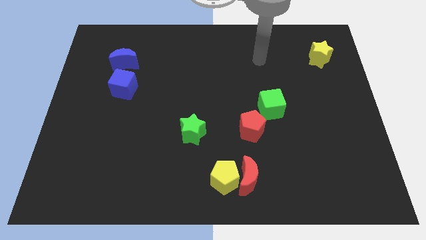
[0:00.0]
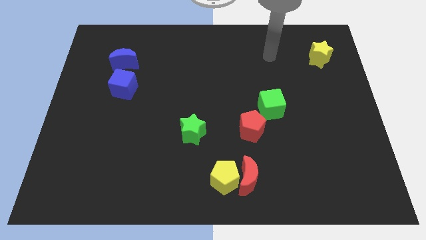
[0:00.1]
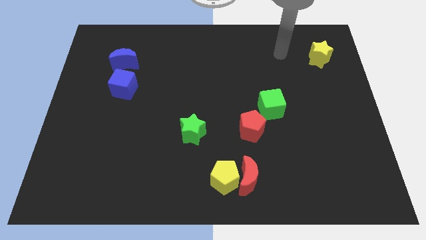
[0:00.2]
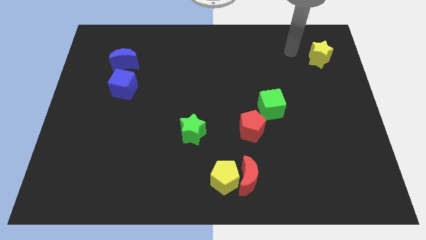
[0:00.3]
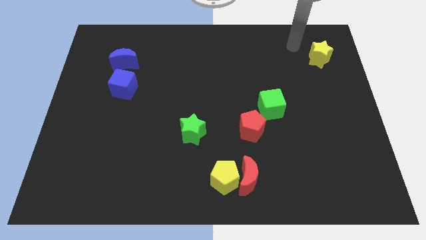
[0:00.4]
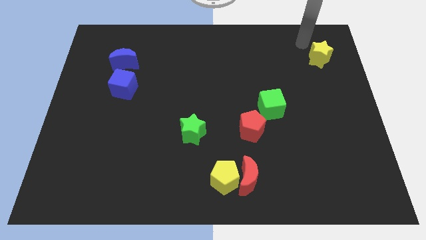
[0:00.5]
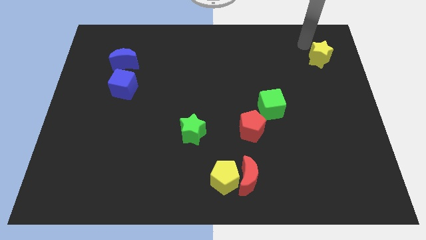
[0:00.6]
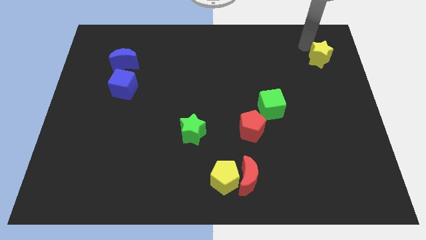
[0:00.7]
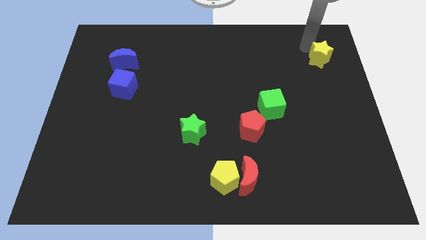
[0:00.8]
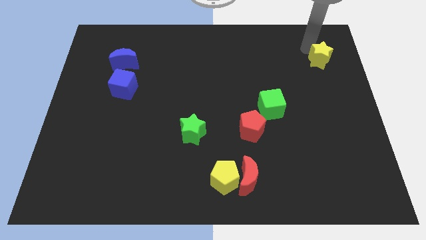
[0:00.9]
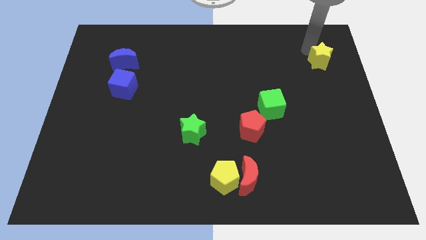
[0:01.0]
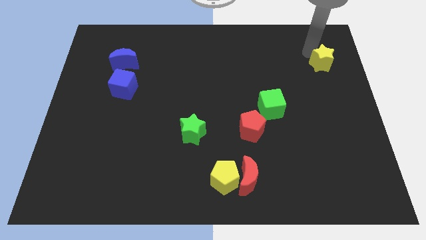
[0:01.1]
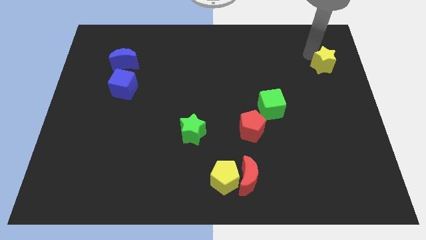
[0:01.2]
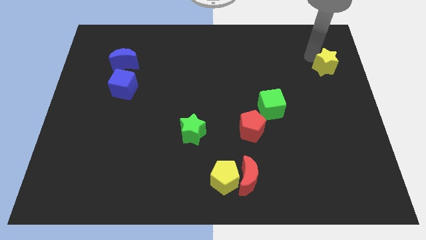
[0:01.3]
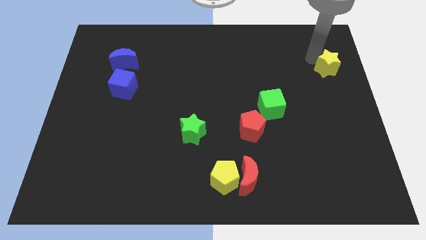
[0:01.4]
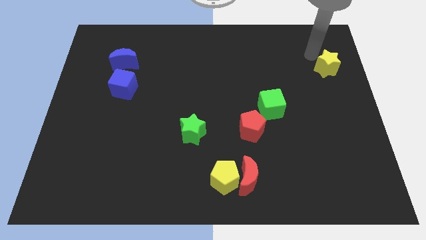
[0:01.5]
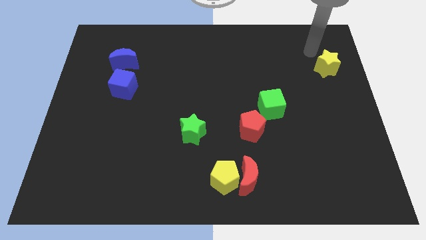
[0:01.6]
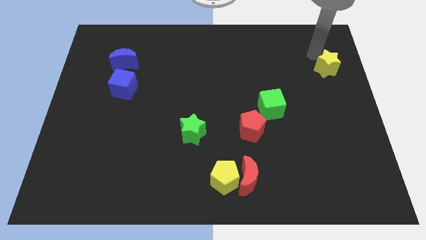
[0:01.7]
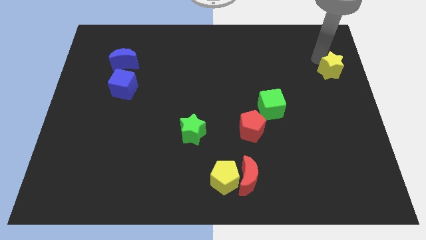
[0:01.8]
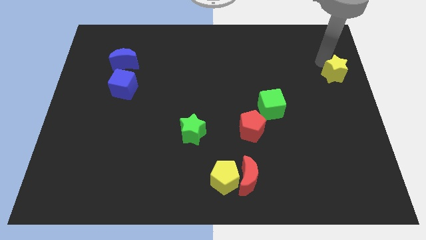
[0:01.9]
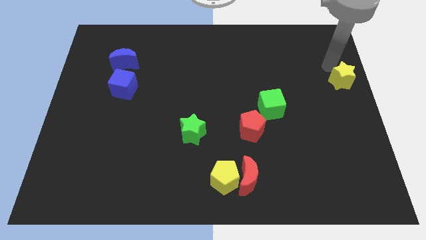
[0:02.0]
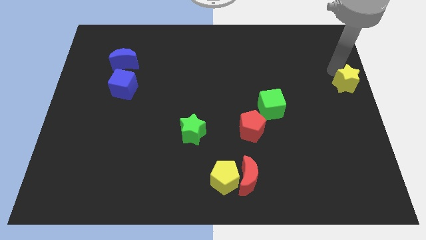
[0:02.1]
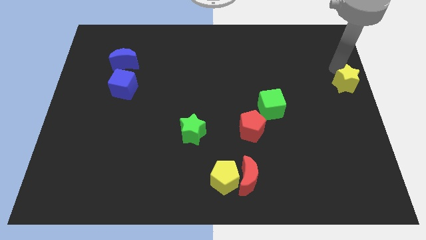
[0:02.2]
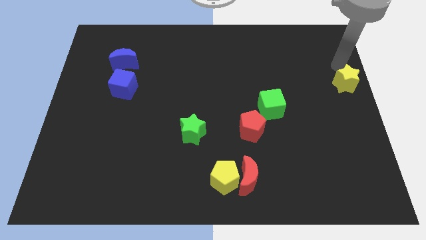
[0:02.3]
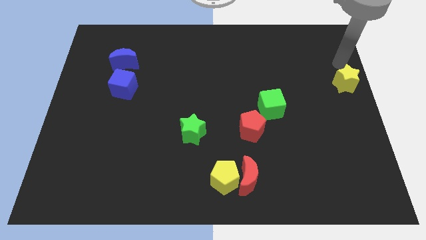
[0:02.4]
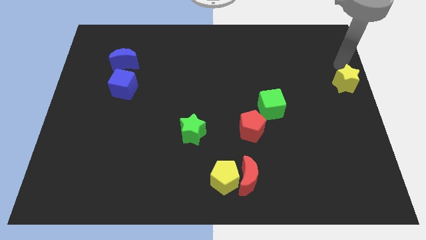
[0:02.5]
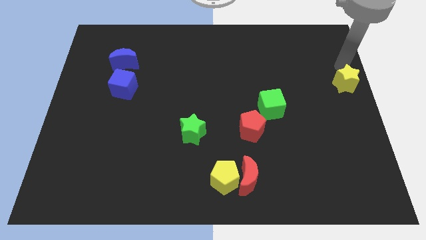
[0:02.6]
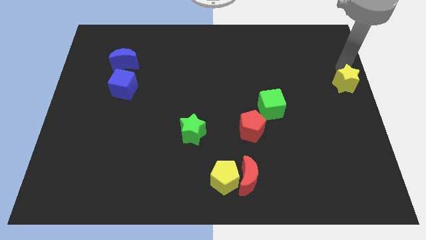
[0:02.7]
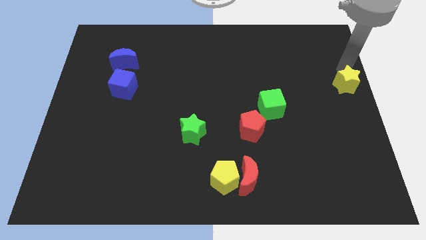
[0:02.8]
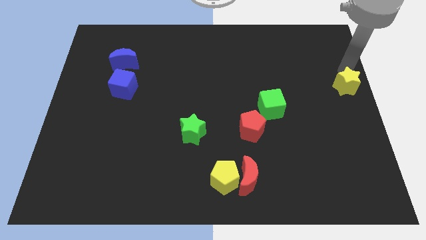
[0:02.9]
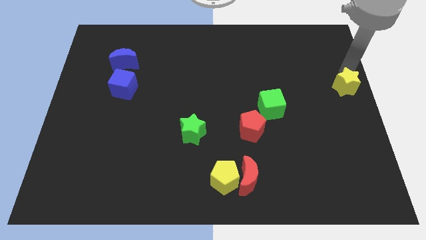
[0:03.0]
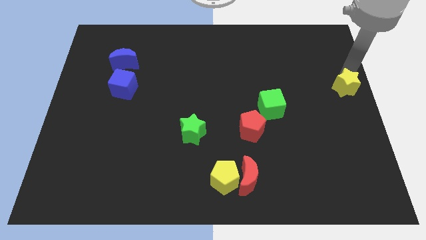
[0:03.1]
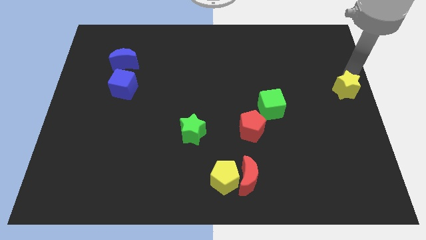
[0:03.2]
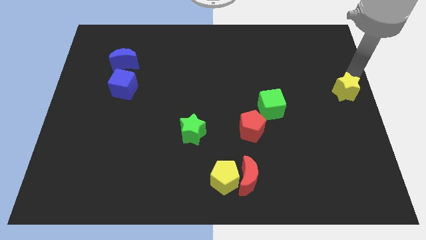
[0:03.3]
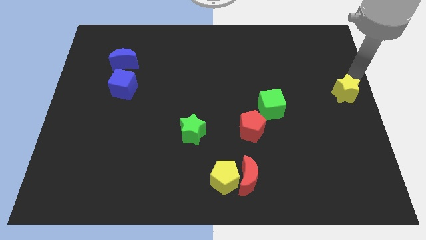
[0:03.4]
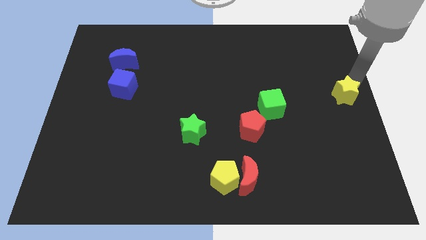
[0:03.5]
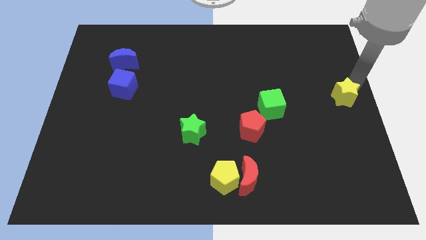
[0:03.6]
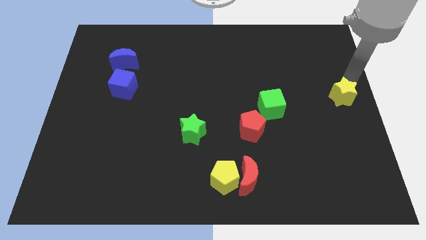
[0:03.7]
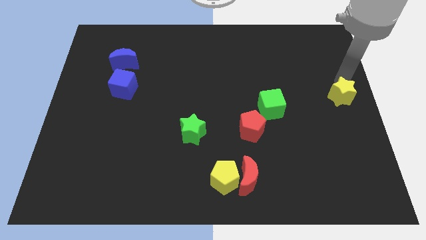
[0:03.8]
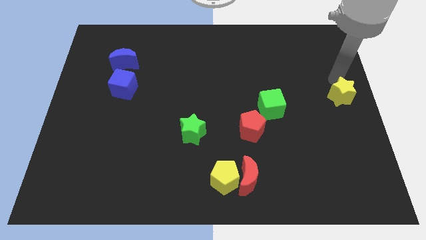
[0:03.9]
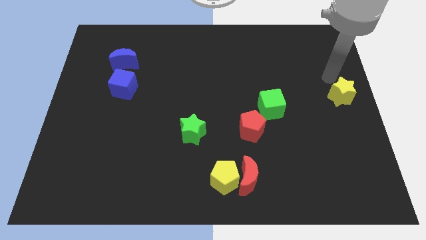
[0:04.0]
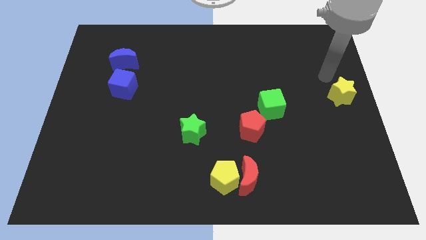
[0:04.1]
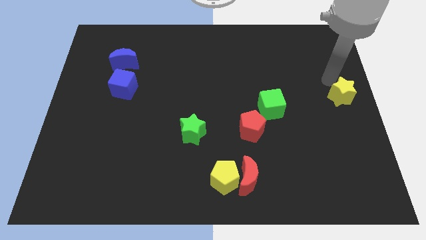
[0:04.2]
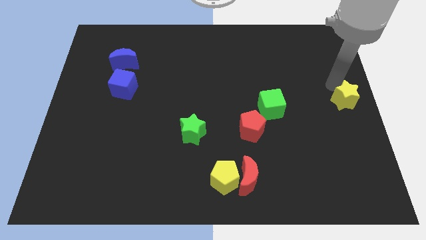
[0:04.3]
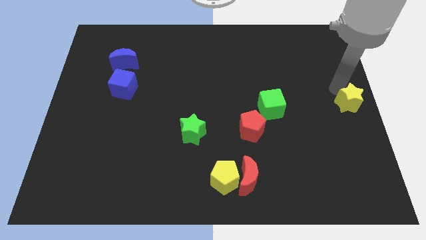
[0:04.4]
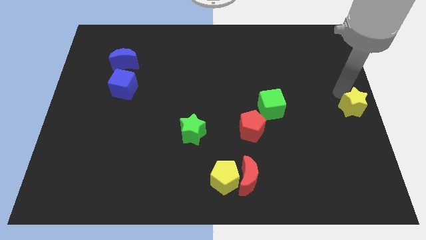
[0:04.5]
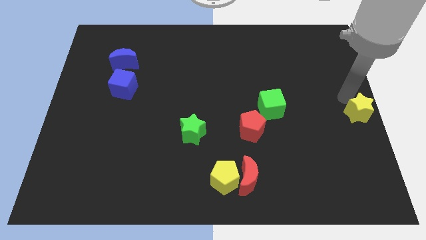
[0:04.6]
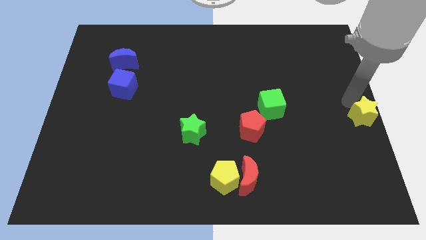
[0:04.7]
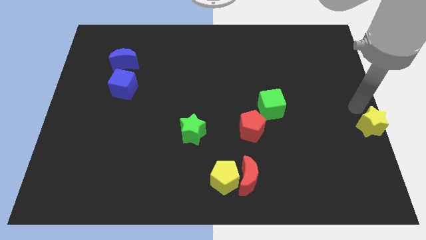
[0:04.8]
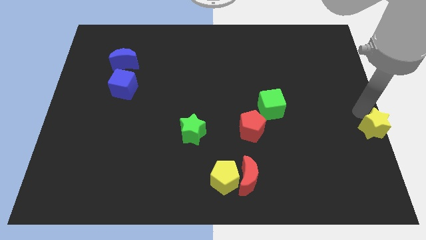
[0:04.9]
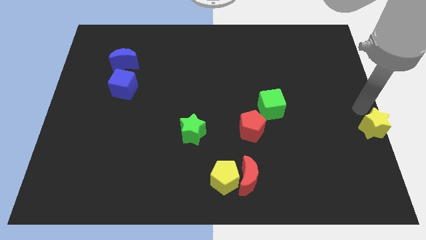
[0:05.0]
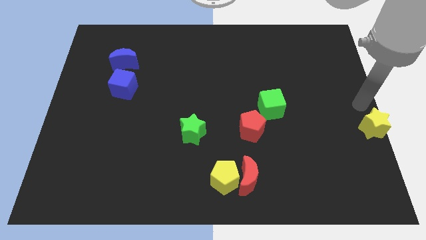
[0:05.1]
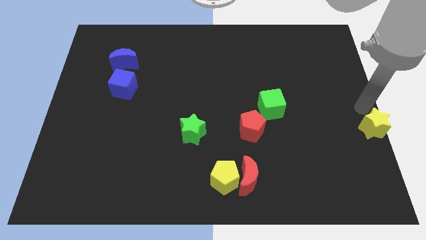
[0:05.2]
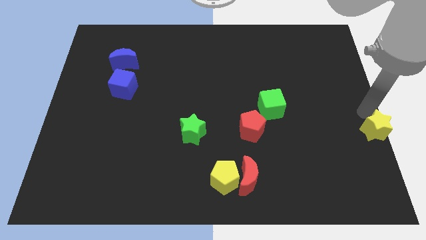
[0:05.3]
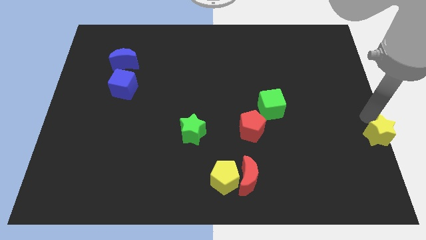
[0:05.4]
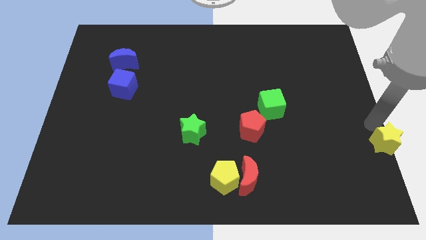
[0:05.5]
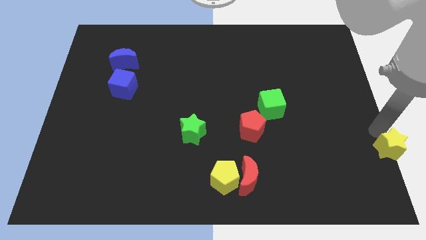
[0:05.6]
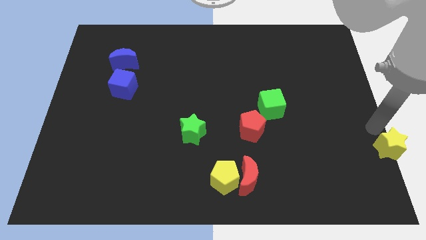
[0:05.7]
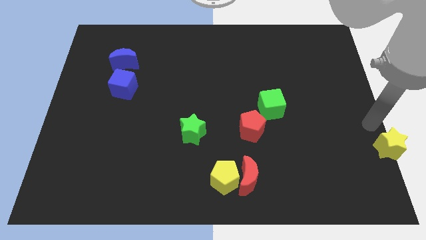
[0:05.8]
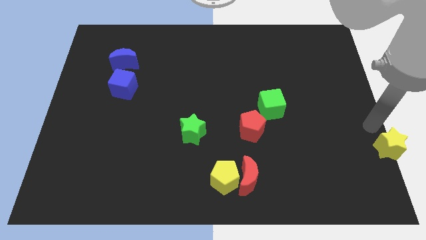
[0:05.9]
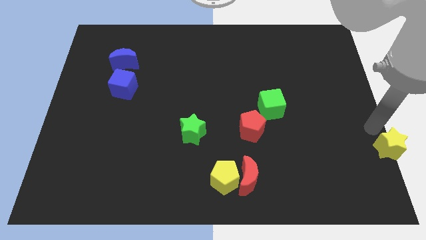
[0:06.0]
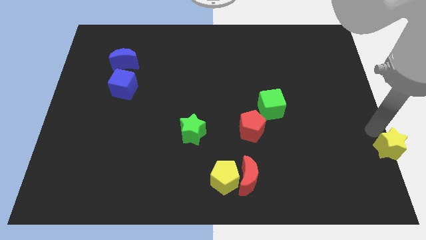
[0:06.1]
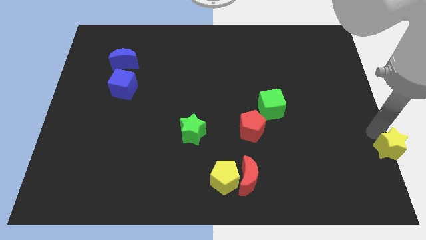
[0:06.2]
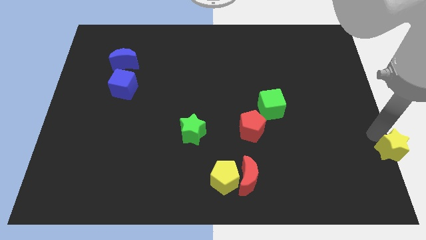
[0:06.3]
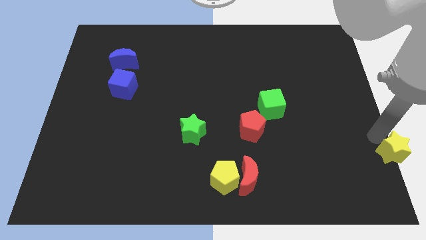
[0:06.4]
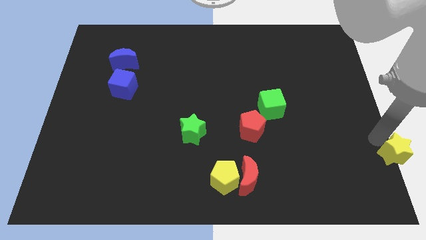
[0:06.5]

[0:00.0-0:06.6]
put the yellow star to the bottom right corner
